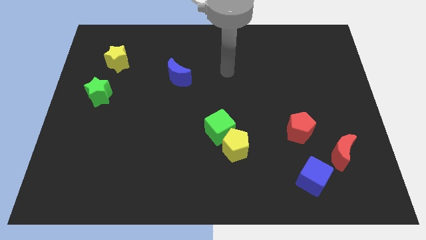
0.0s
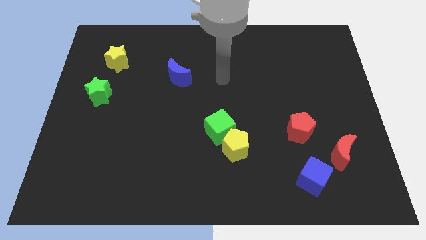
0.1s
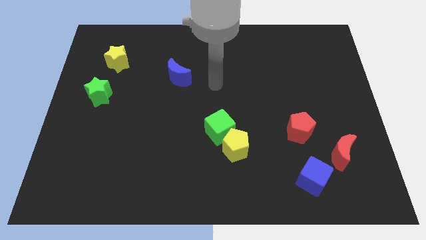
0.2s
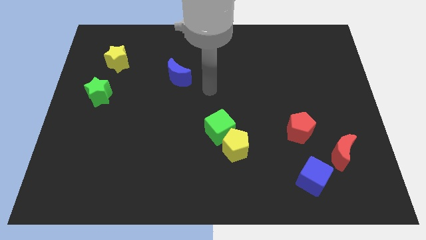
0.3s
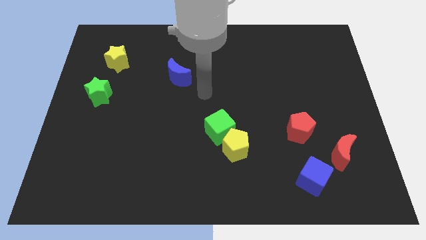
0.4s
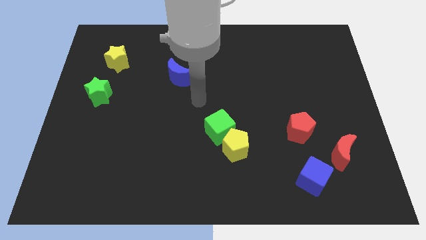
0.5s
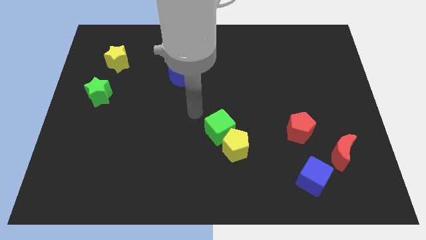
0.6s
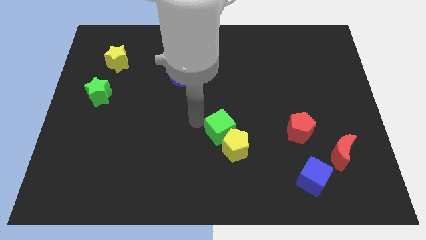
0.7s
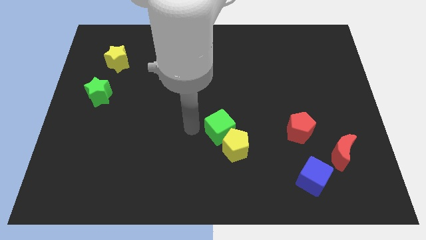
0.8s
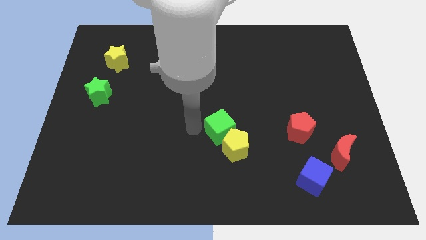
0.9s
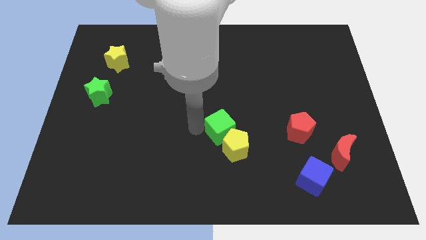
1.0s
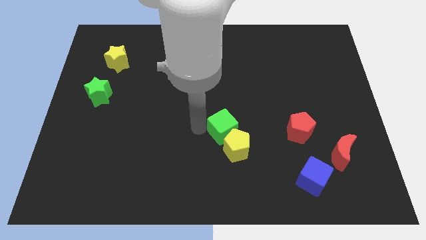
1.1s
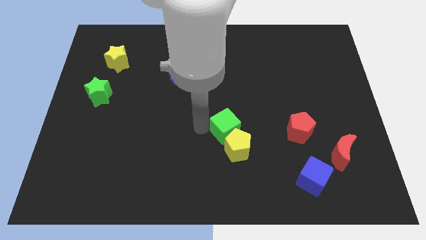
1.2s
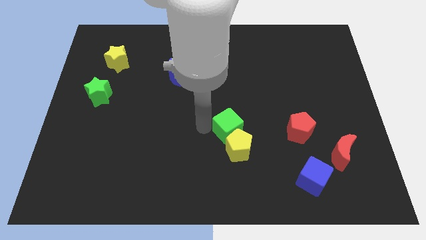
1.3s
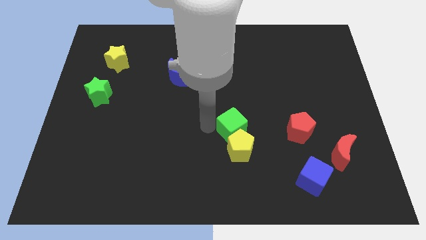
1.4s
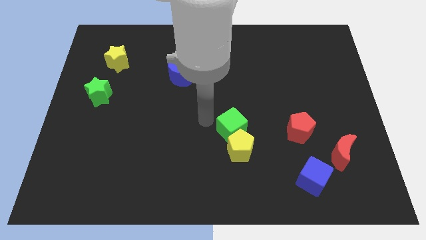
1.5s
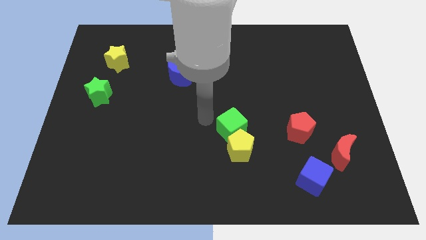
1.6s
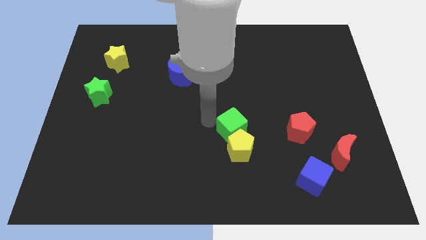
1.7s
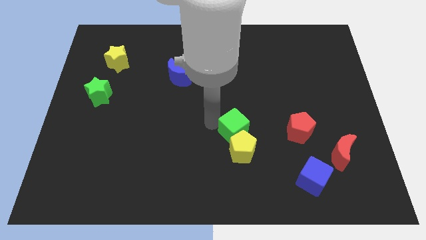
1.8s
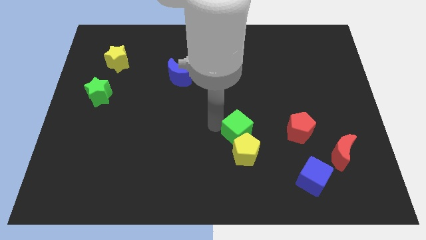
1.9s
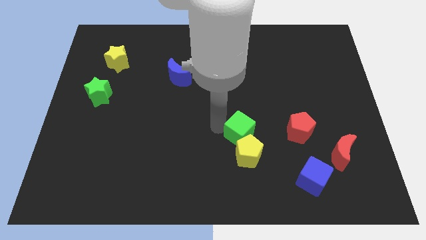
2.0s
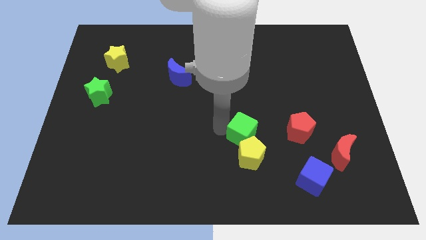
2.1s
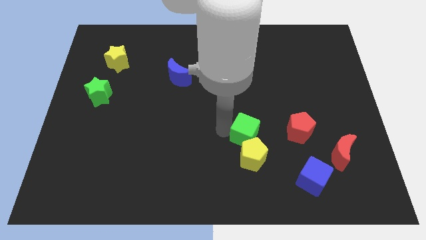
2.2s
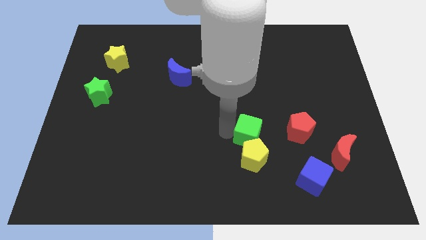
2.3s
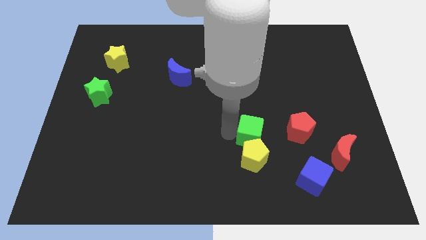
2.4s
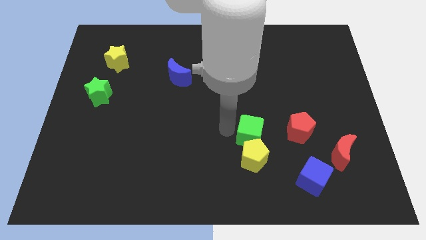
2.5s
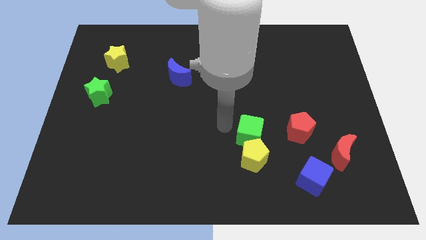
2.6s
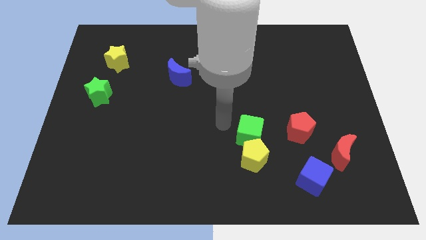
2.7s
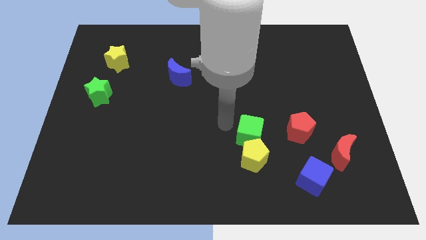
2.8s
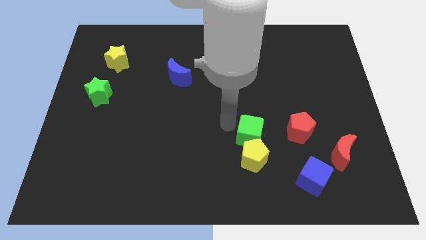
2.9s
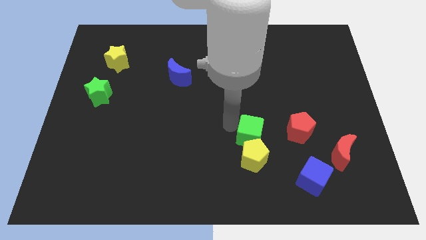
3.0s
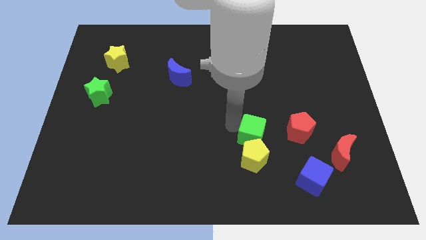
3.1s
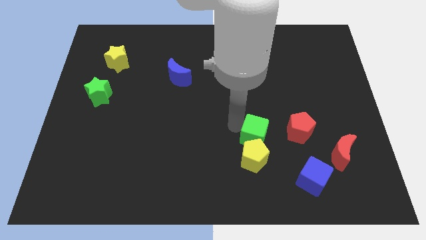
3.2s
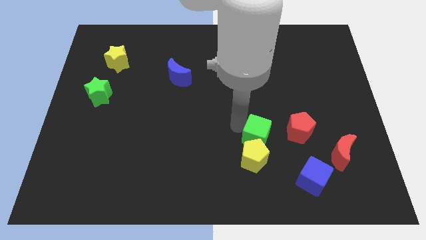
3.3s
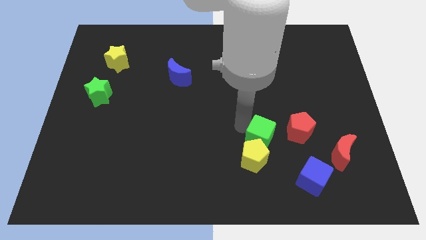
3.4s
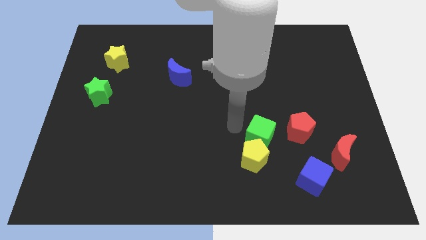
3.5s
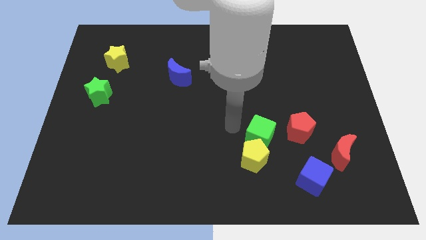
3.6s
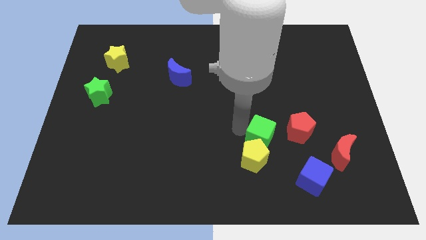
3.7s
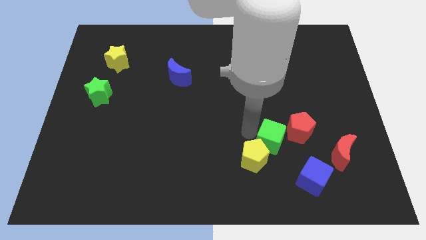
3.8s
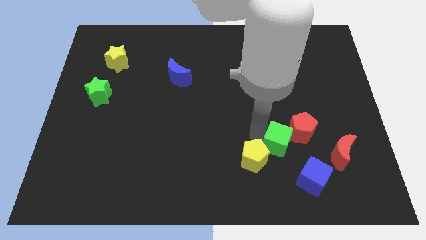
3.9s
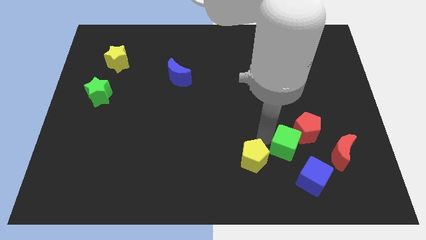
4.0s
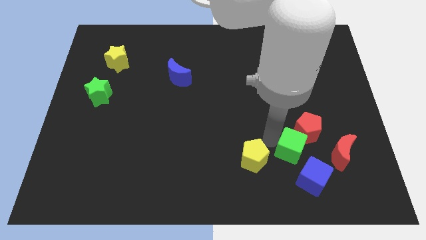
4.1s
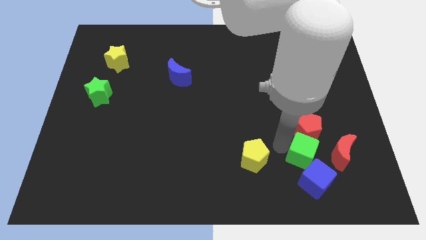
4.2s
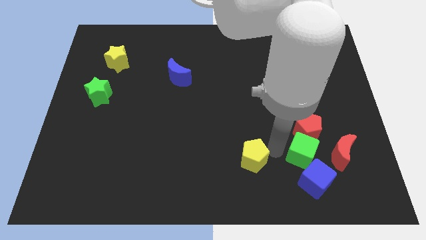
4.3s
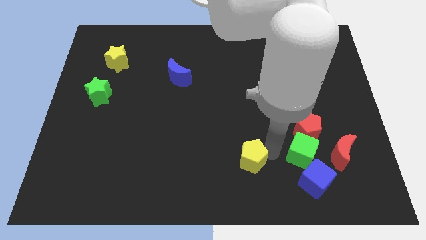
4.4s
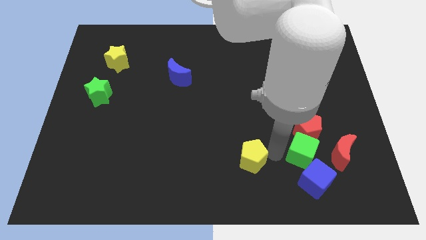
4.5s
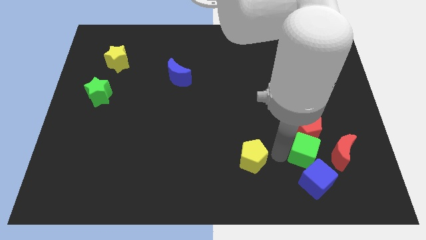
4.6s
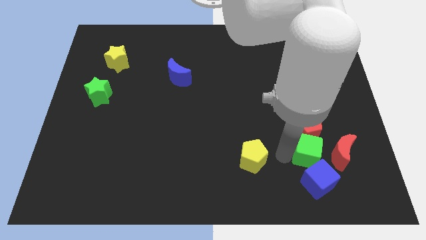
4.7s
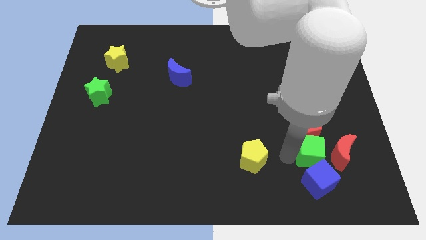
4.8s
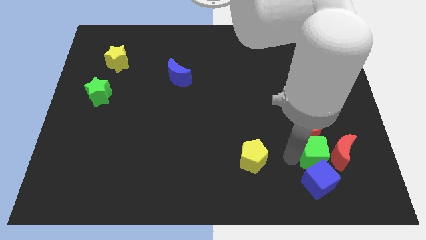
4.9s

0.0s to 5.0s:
slide the green cube towards the red moon

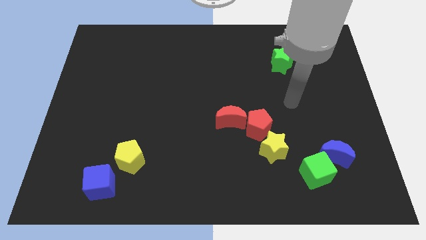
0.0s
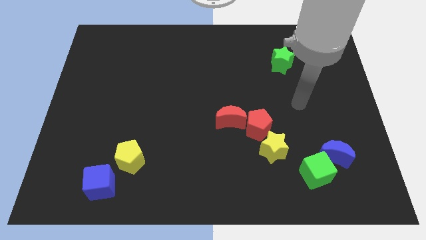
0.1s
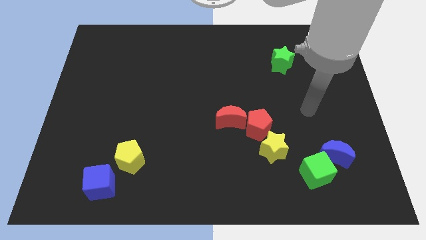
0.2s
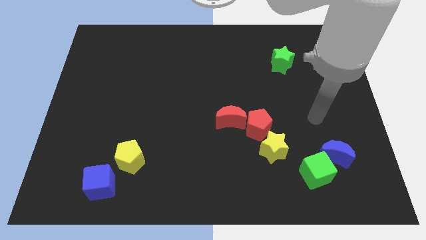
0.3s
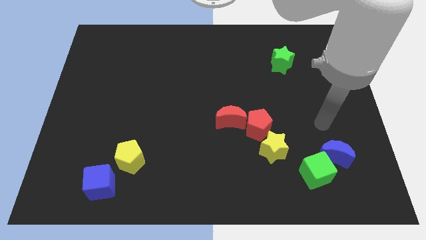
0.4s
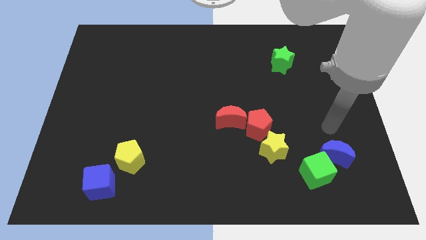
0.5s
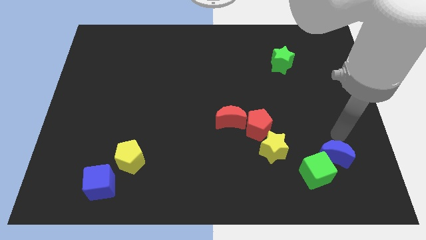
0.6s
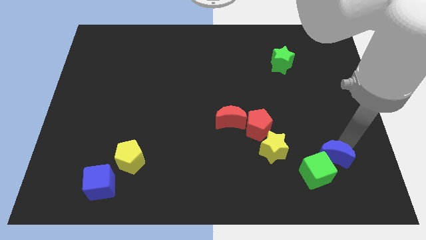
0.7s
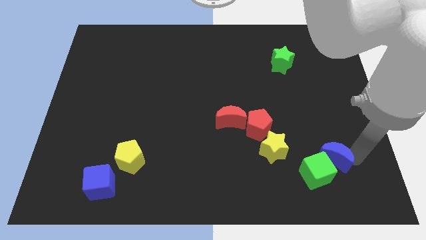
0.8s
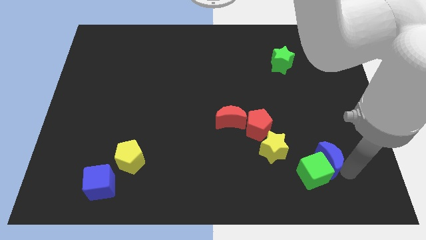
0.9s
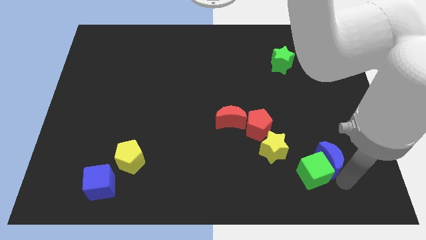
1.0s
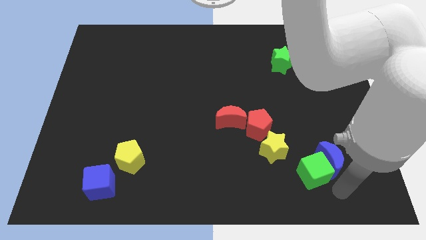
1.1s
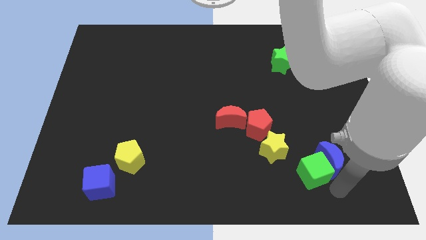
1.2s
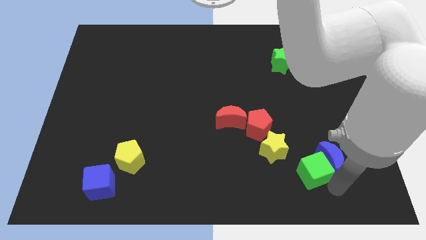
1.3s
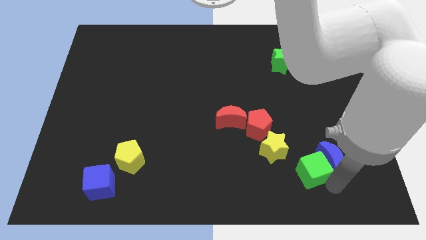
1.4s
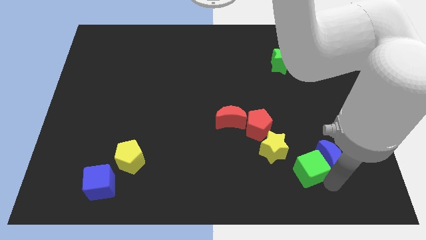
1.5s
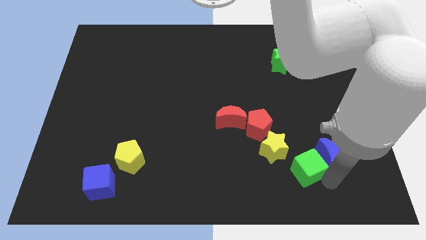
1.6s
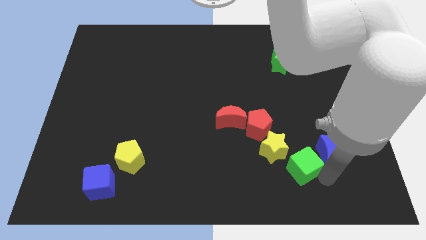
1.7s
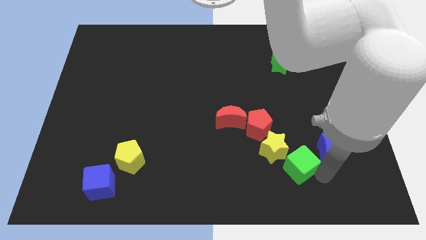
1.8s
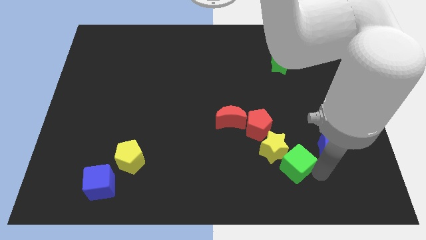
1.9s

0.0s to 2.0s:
slide the green cube to the yellow star

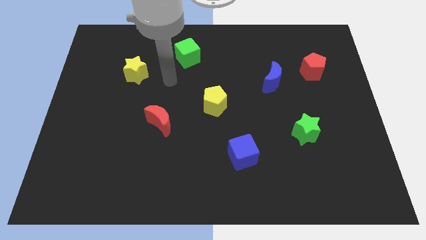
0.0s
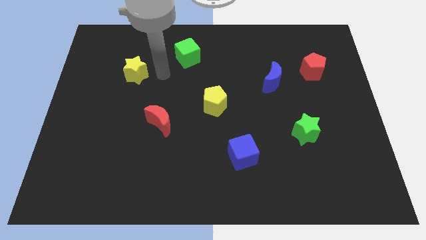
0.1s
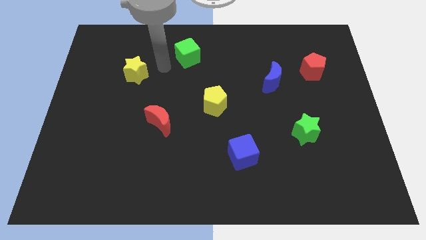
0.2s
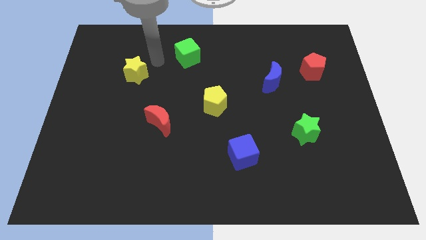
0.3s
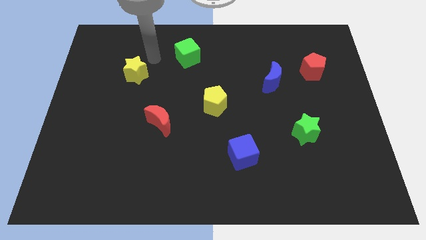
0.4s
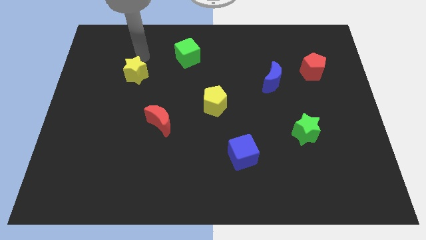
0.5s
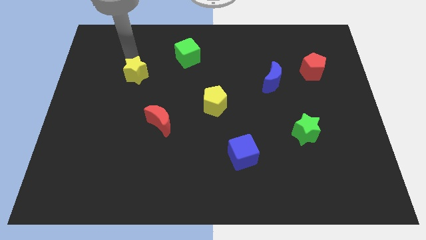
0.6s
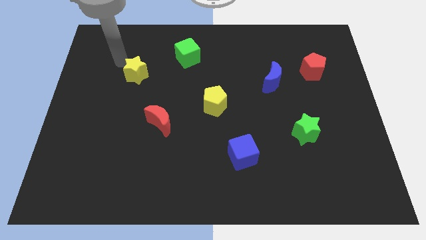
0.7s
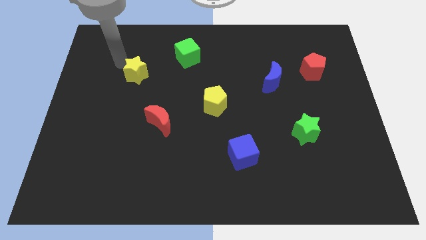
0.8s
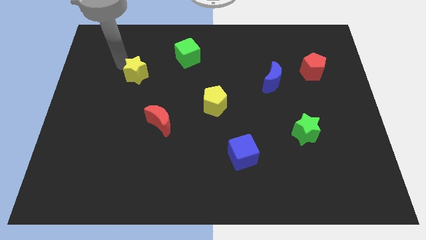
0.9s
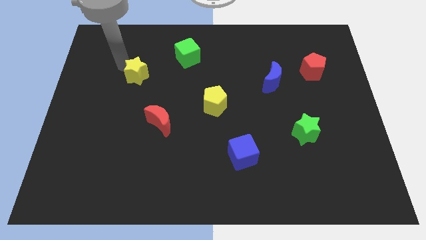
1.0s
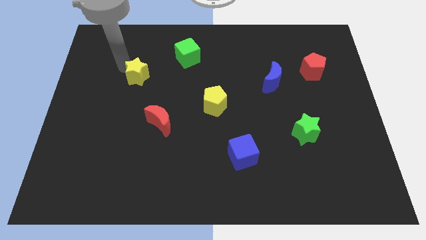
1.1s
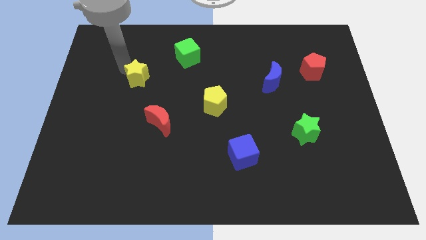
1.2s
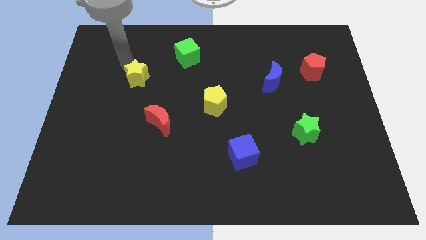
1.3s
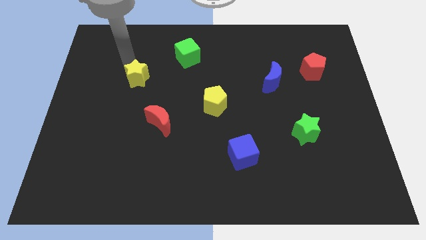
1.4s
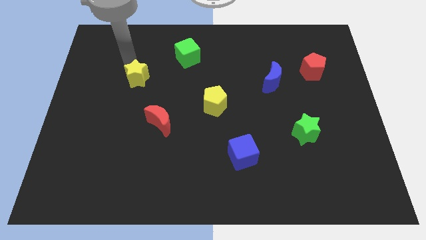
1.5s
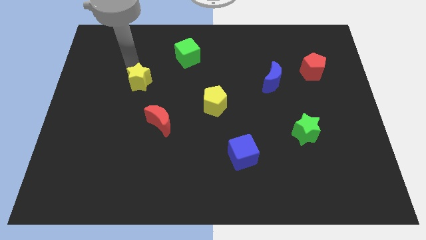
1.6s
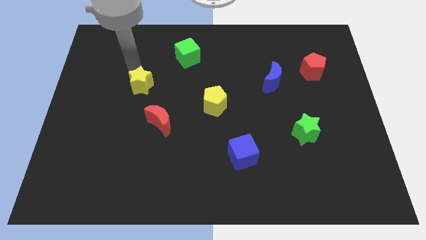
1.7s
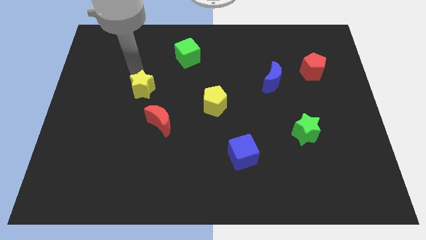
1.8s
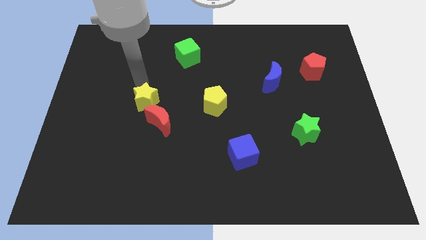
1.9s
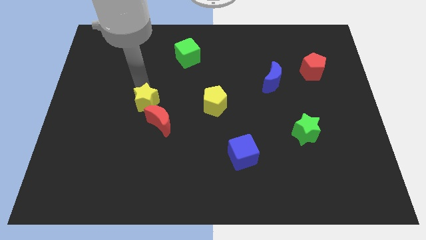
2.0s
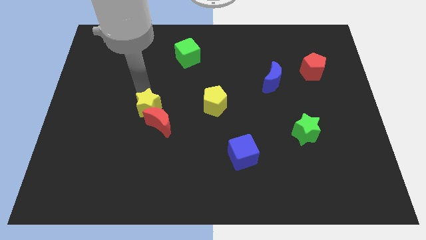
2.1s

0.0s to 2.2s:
slide the yellow star next to the red moon
